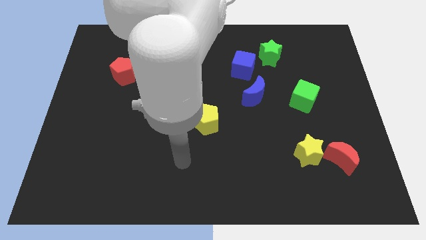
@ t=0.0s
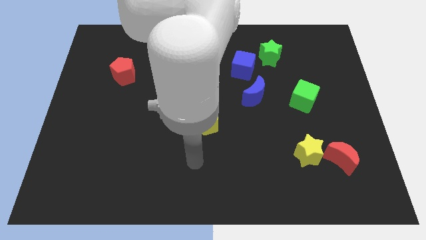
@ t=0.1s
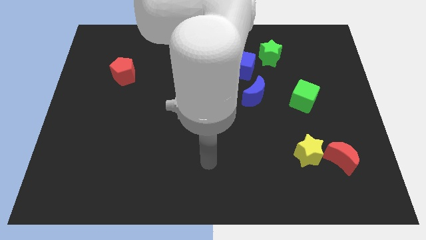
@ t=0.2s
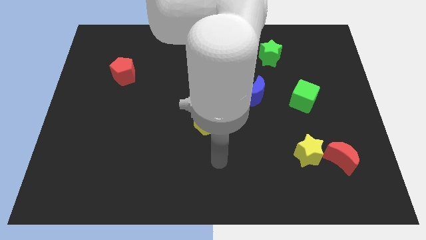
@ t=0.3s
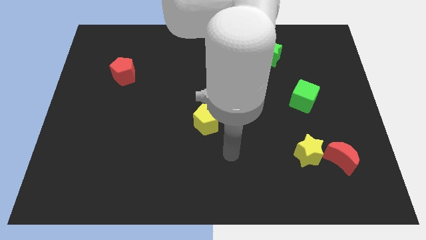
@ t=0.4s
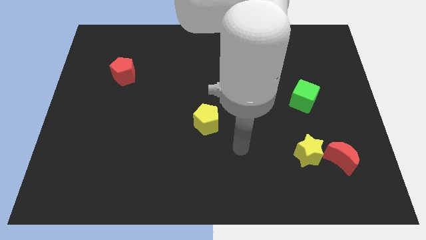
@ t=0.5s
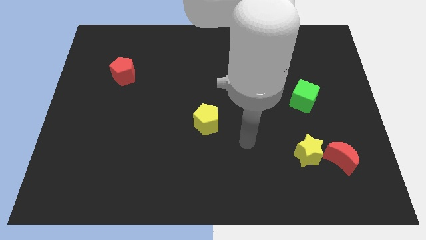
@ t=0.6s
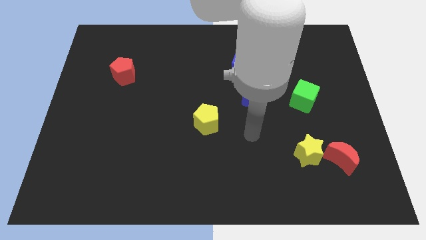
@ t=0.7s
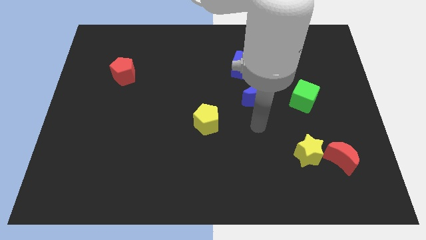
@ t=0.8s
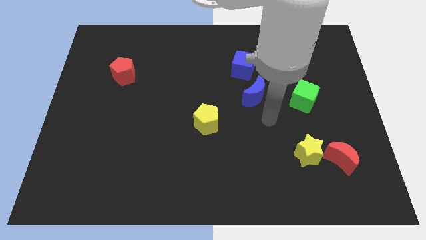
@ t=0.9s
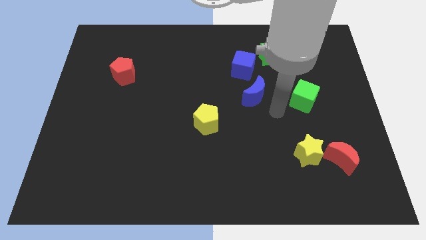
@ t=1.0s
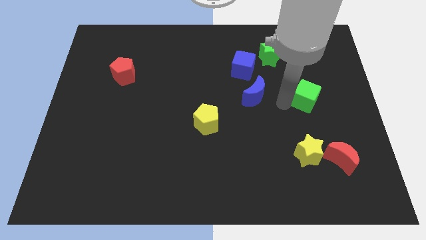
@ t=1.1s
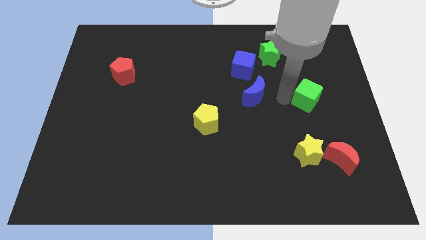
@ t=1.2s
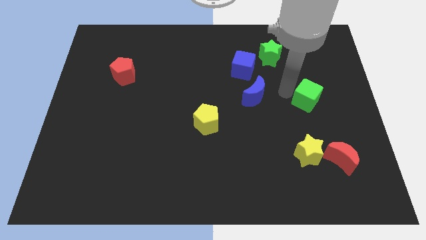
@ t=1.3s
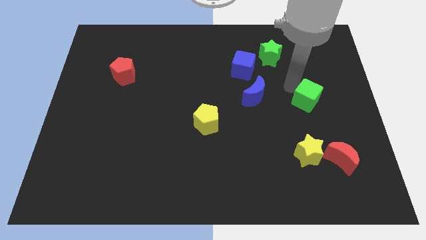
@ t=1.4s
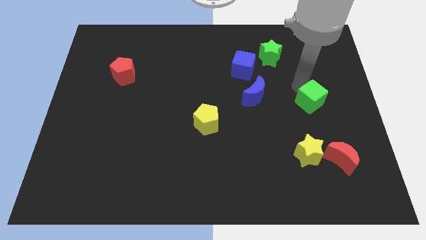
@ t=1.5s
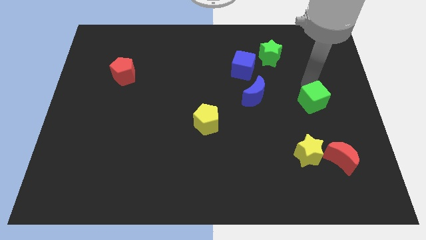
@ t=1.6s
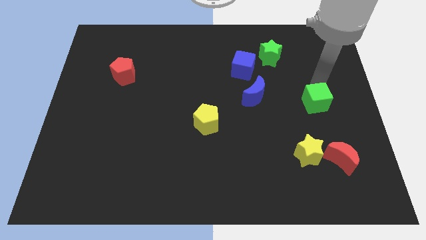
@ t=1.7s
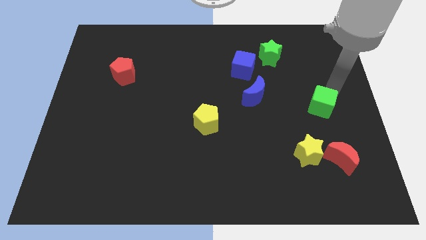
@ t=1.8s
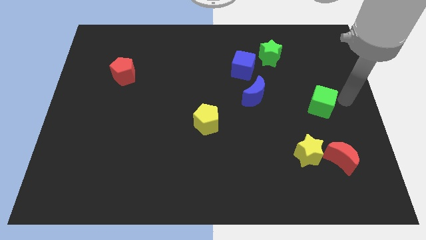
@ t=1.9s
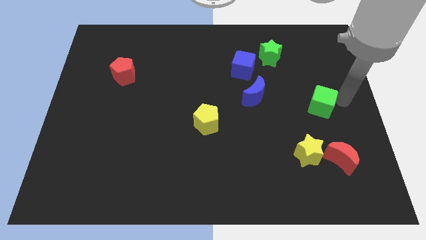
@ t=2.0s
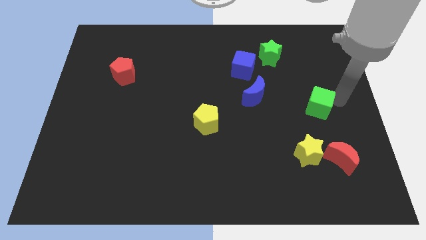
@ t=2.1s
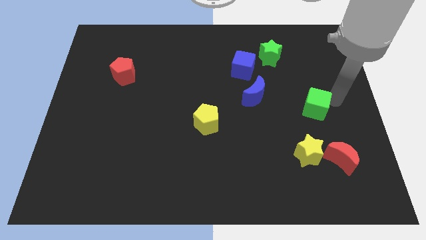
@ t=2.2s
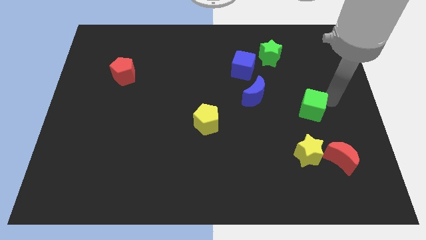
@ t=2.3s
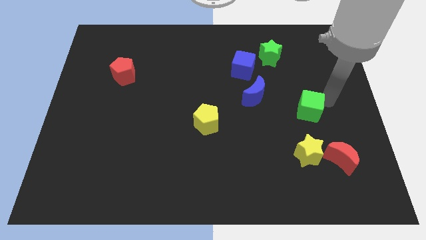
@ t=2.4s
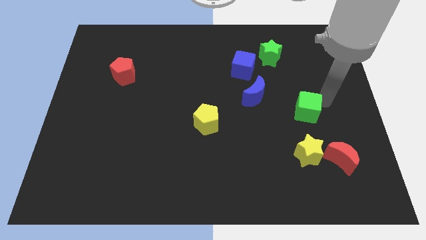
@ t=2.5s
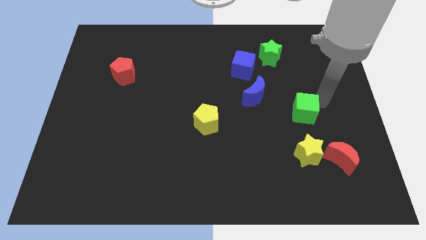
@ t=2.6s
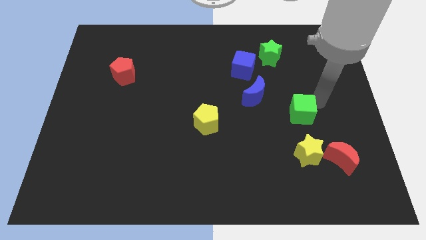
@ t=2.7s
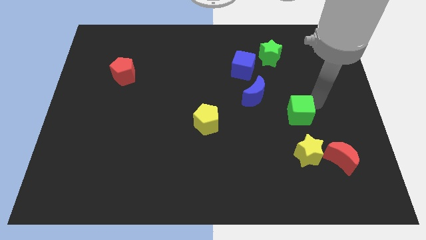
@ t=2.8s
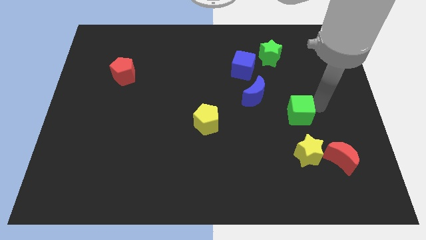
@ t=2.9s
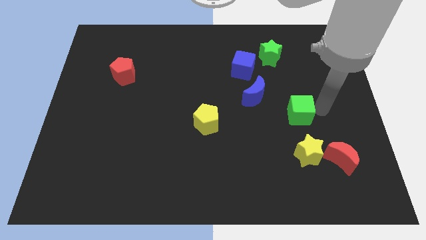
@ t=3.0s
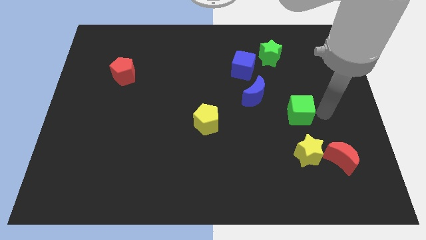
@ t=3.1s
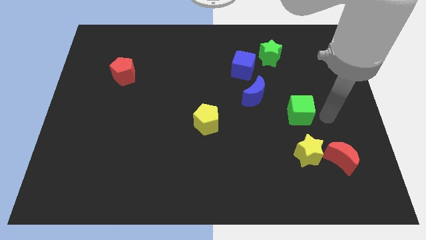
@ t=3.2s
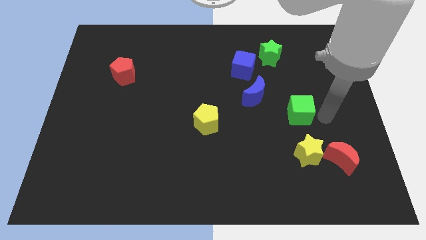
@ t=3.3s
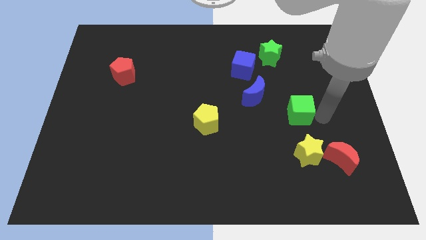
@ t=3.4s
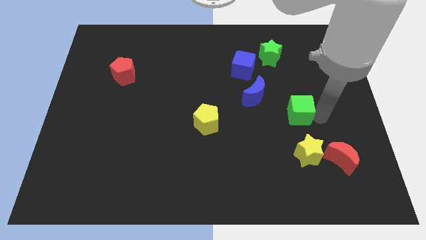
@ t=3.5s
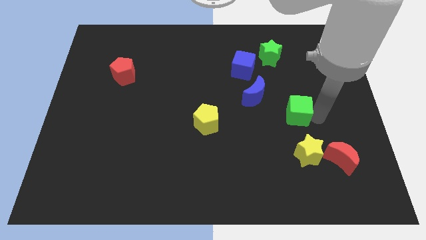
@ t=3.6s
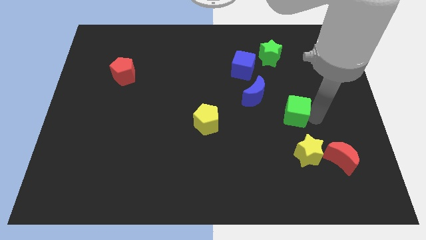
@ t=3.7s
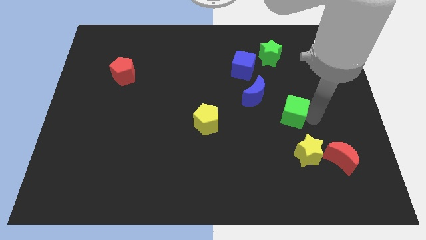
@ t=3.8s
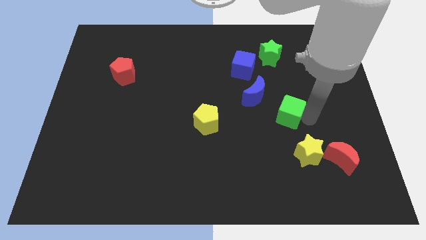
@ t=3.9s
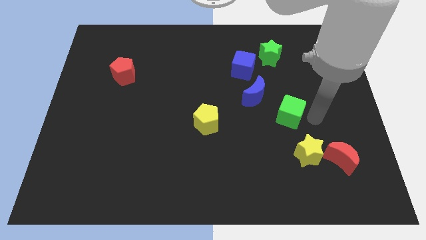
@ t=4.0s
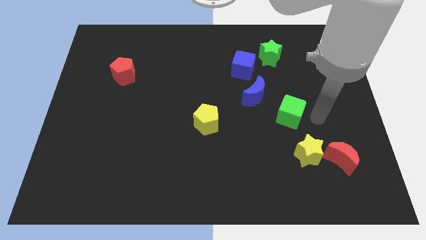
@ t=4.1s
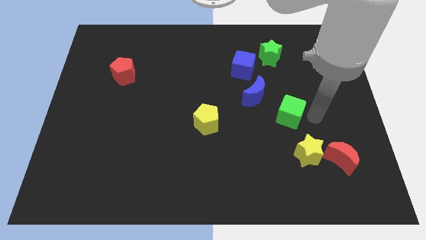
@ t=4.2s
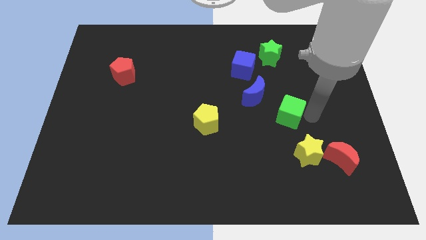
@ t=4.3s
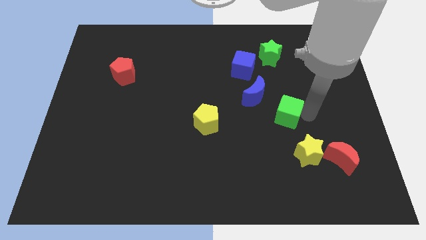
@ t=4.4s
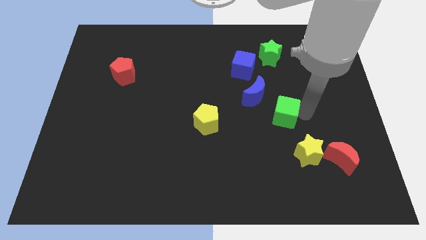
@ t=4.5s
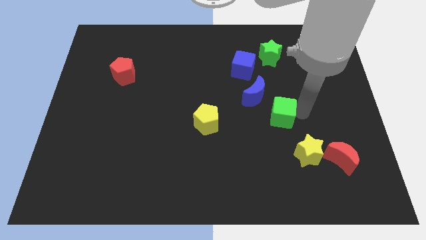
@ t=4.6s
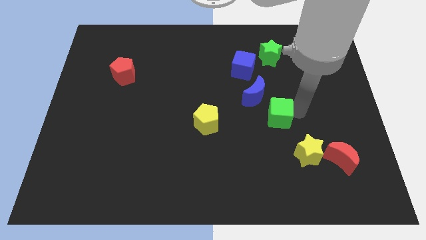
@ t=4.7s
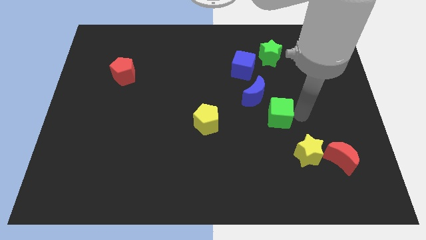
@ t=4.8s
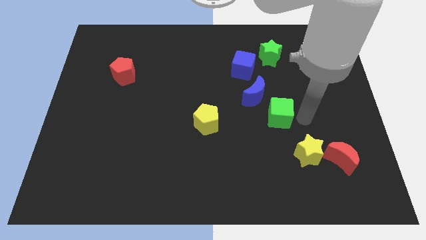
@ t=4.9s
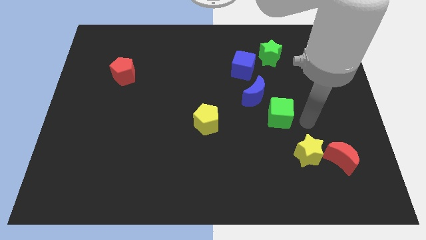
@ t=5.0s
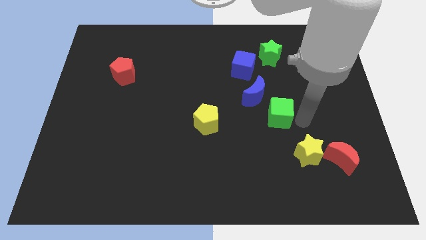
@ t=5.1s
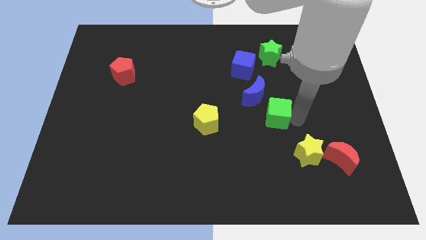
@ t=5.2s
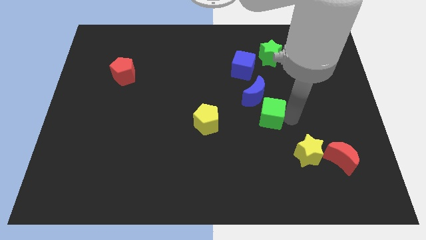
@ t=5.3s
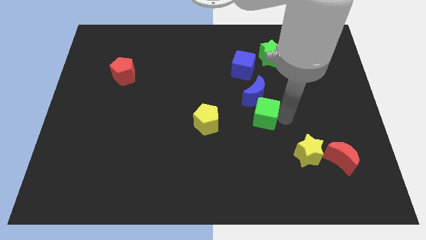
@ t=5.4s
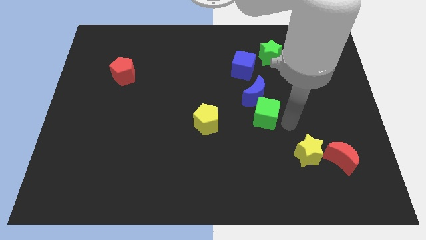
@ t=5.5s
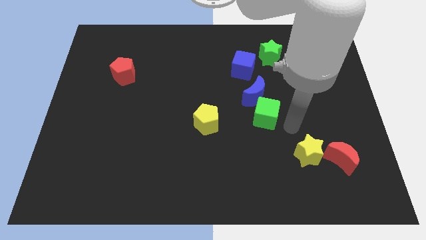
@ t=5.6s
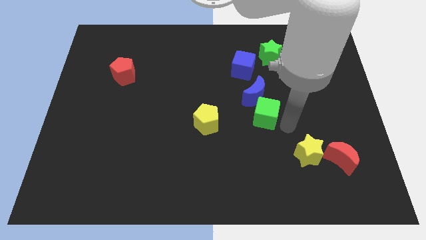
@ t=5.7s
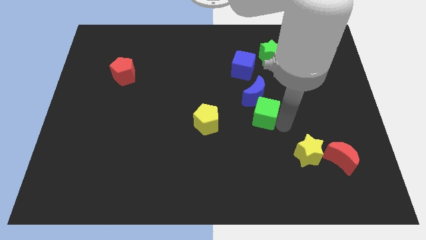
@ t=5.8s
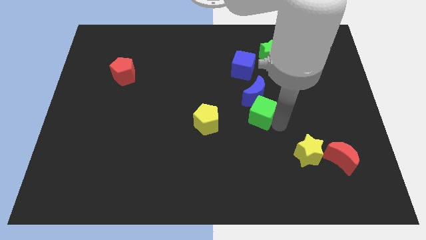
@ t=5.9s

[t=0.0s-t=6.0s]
put the green cube to the middle

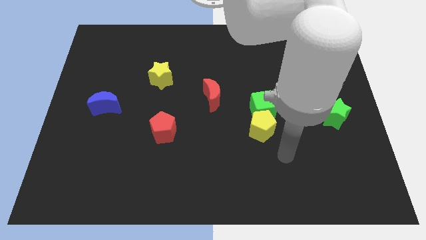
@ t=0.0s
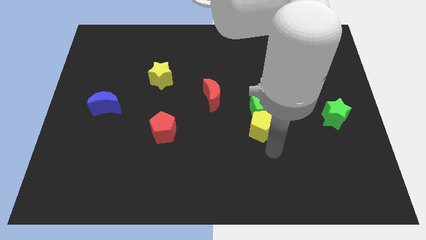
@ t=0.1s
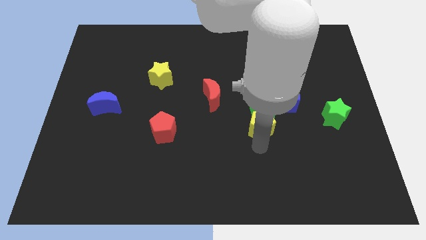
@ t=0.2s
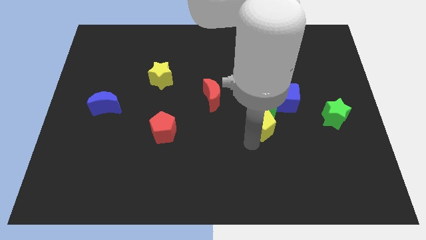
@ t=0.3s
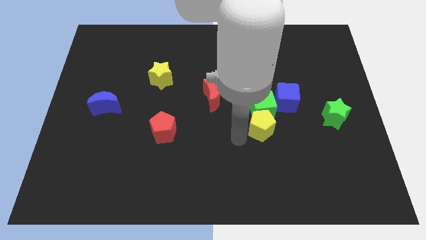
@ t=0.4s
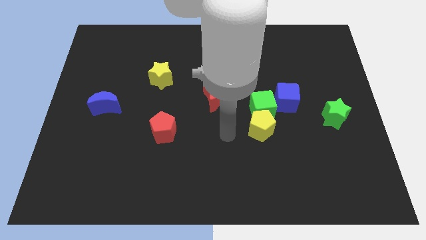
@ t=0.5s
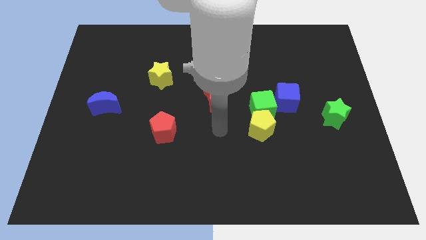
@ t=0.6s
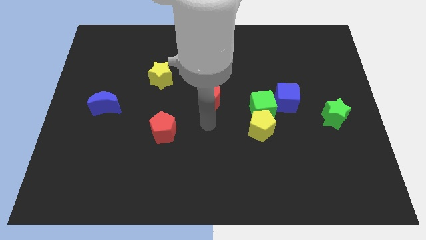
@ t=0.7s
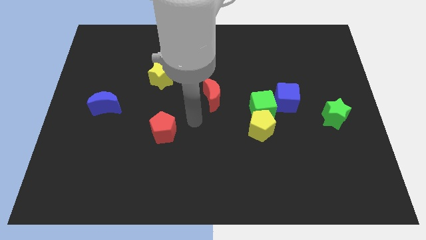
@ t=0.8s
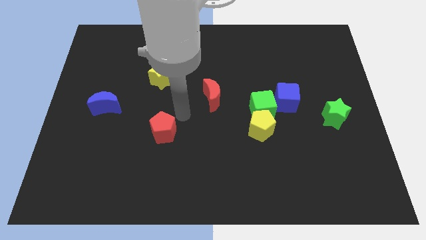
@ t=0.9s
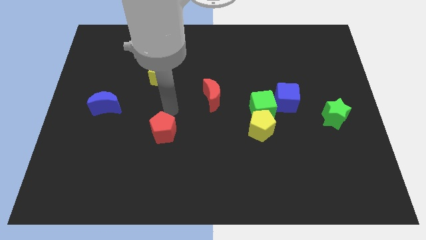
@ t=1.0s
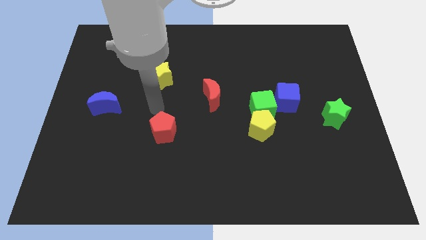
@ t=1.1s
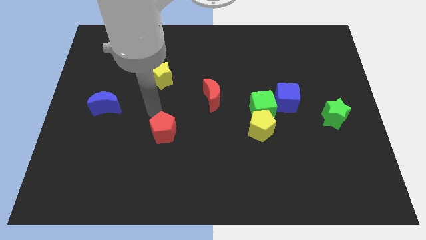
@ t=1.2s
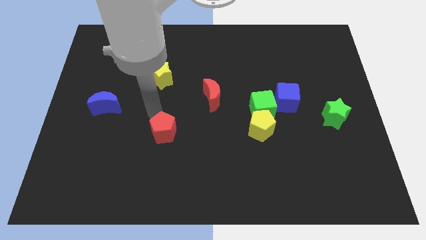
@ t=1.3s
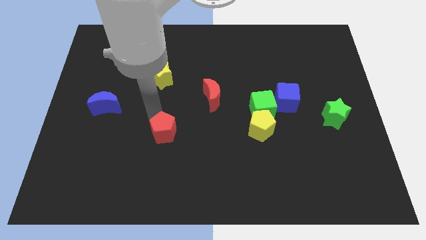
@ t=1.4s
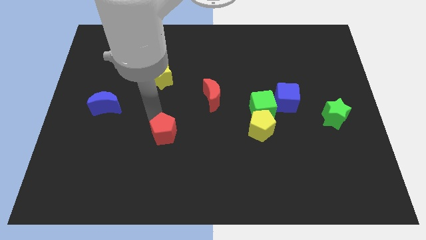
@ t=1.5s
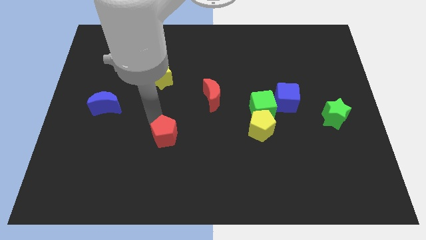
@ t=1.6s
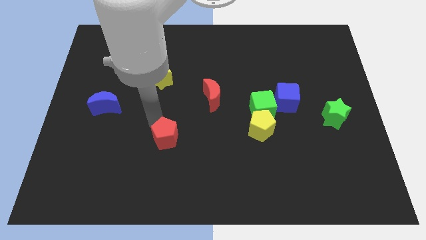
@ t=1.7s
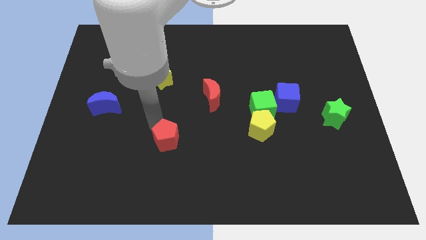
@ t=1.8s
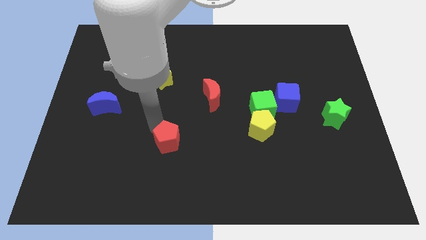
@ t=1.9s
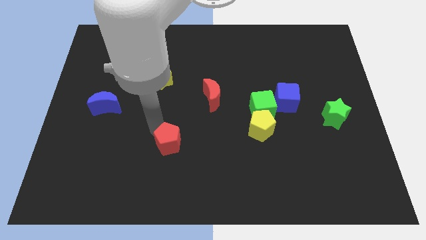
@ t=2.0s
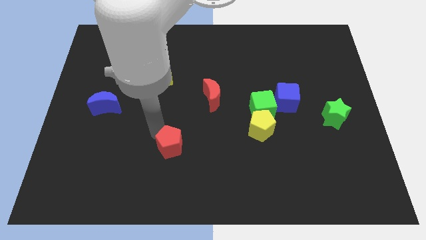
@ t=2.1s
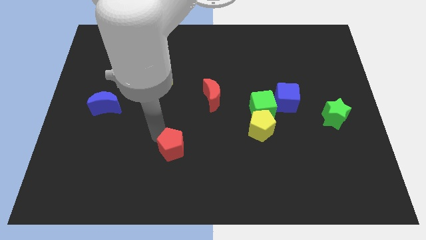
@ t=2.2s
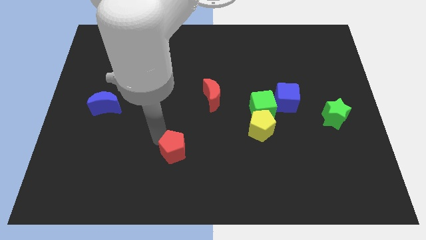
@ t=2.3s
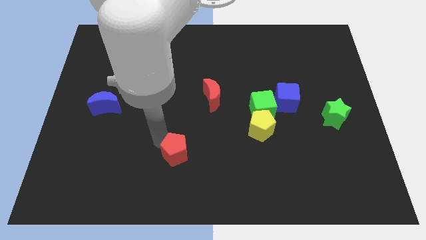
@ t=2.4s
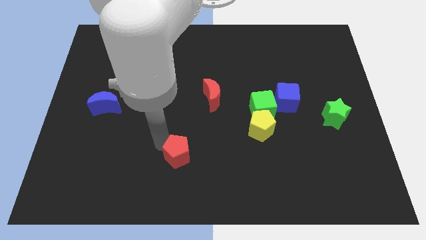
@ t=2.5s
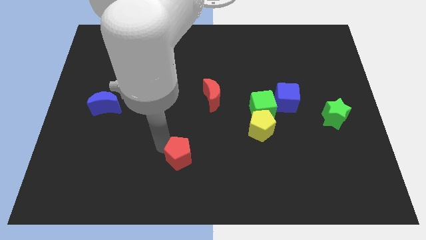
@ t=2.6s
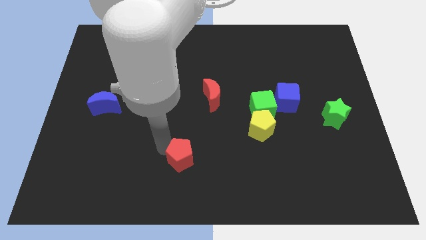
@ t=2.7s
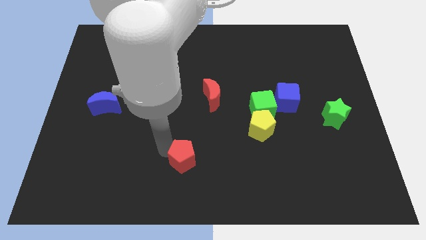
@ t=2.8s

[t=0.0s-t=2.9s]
push the red pentagon to the bottom side
